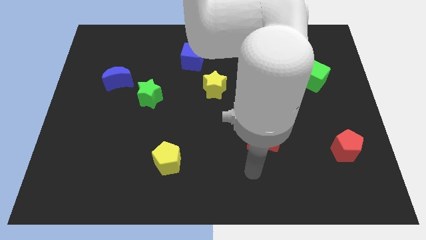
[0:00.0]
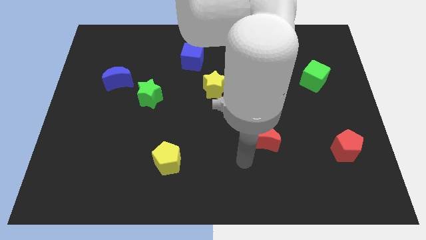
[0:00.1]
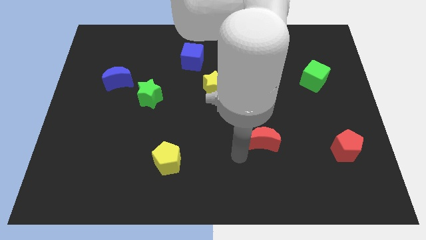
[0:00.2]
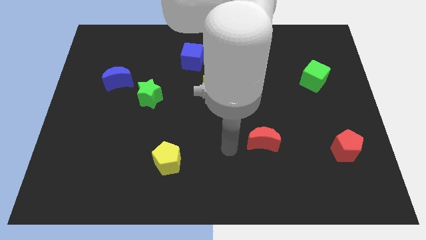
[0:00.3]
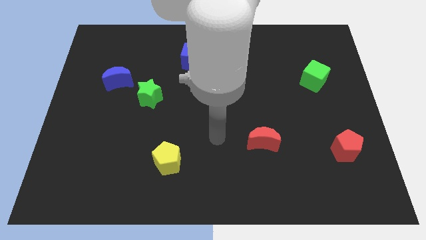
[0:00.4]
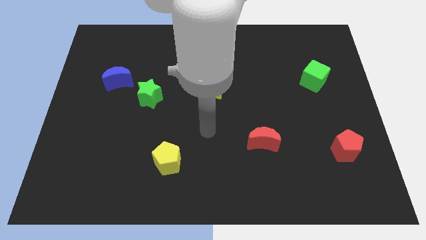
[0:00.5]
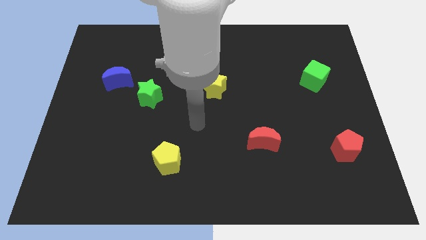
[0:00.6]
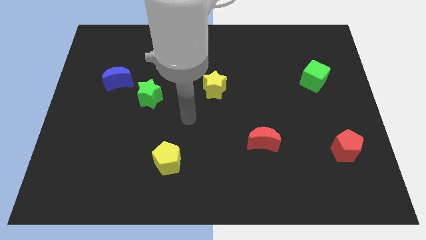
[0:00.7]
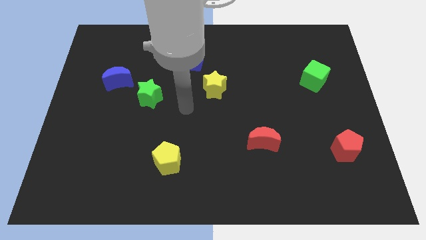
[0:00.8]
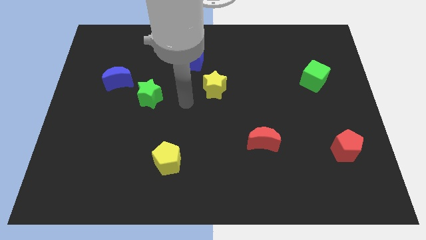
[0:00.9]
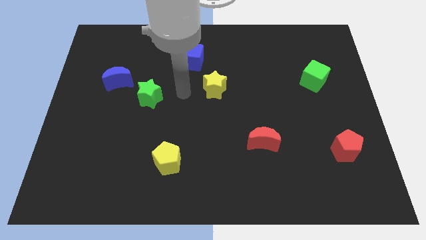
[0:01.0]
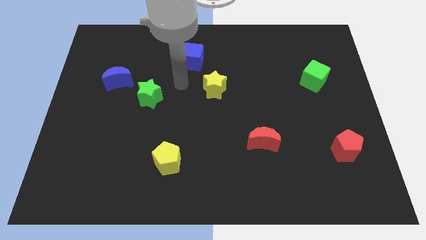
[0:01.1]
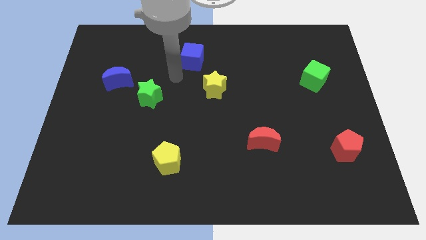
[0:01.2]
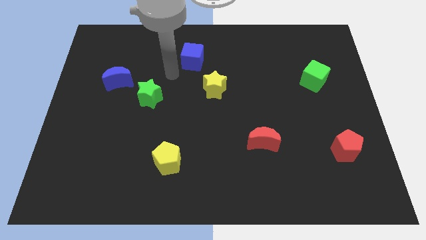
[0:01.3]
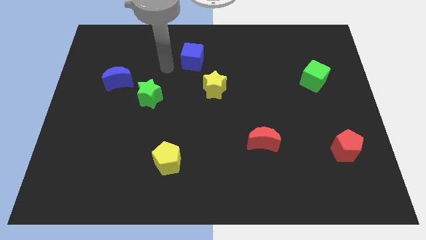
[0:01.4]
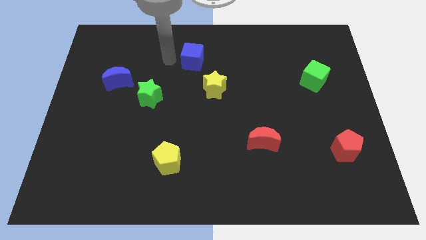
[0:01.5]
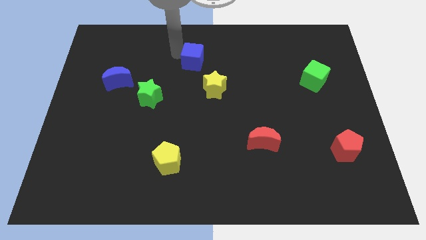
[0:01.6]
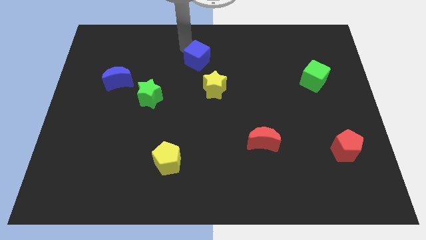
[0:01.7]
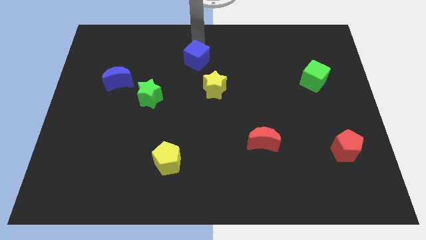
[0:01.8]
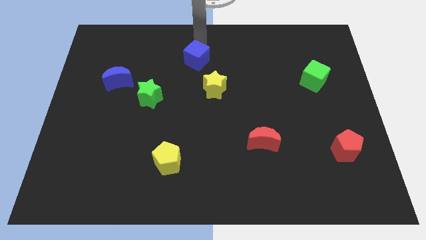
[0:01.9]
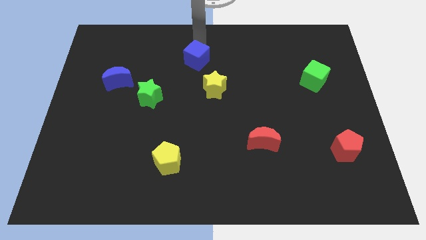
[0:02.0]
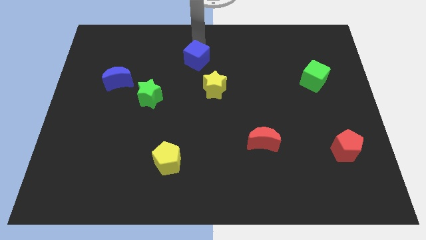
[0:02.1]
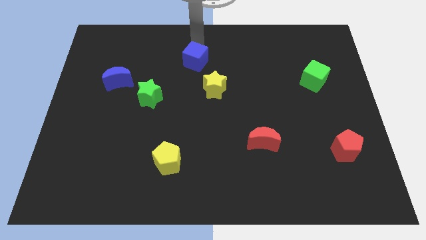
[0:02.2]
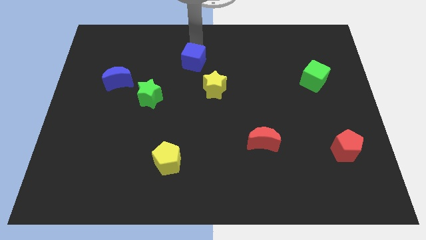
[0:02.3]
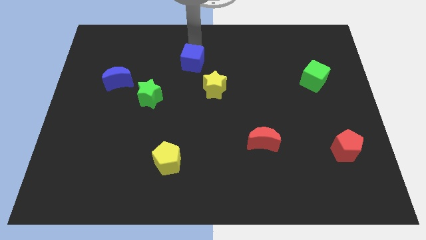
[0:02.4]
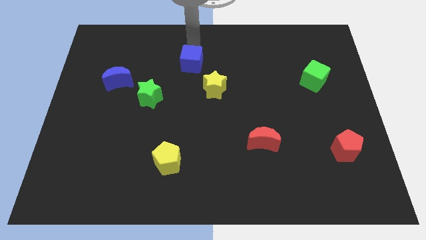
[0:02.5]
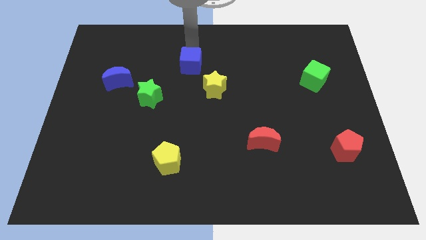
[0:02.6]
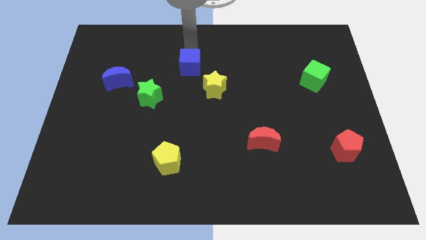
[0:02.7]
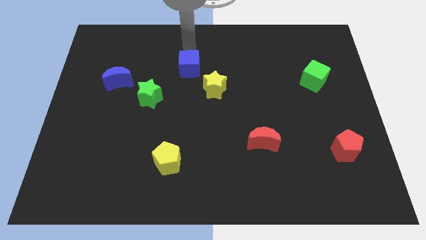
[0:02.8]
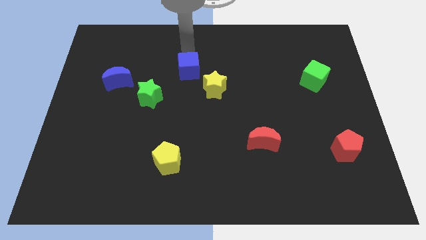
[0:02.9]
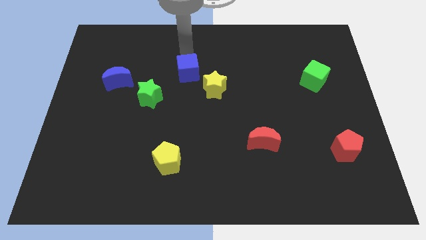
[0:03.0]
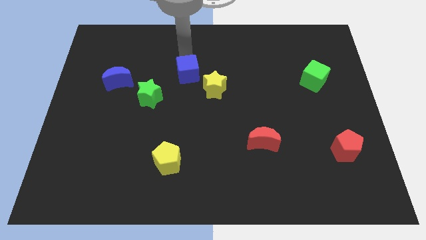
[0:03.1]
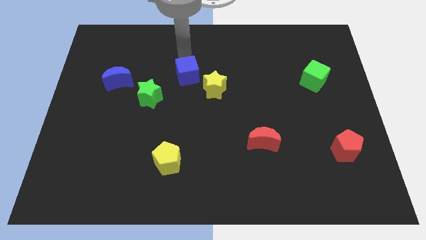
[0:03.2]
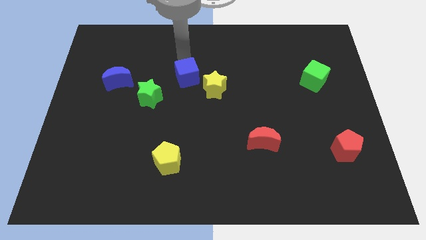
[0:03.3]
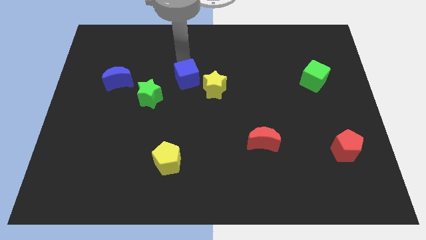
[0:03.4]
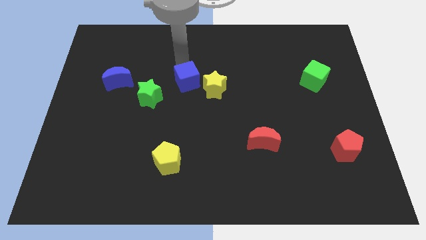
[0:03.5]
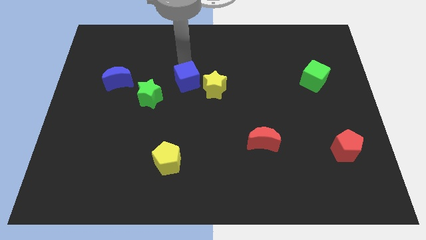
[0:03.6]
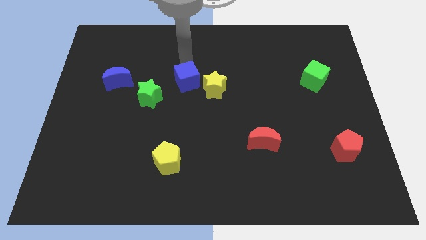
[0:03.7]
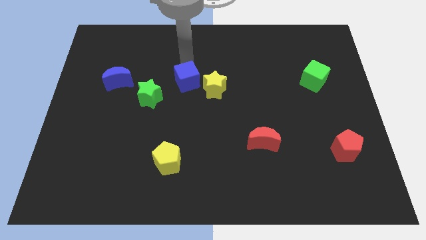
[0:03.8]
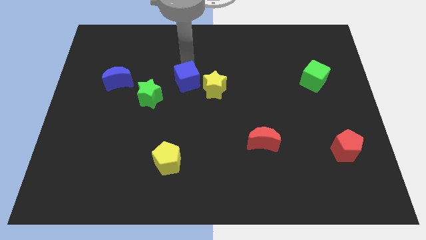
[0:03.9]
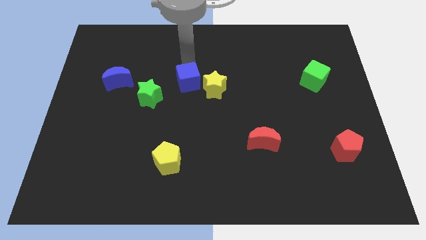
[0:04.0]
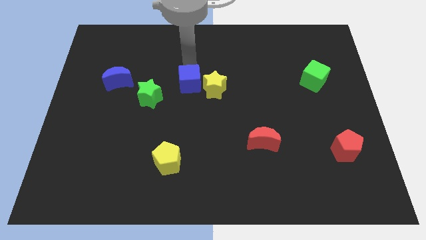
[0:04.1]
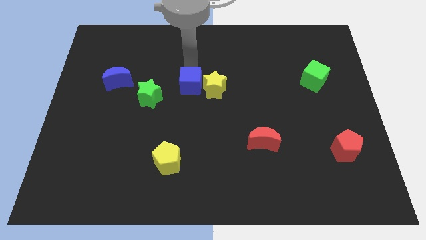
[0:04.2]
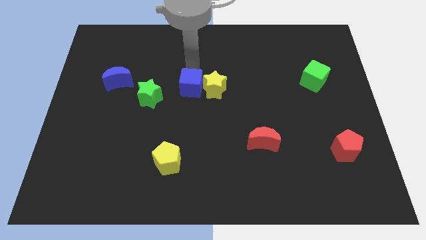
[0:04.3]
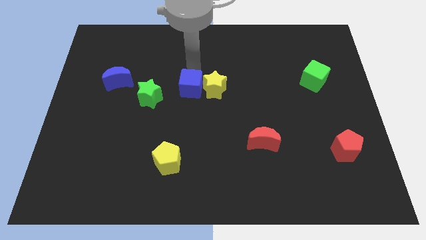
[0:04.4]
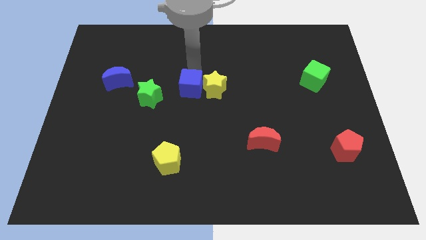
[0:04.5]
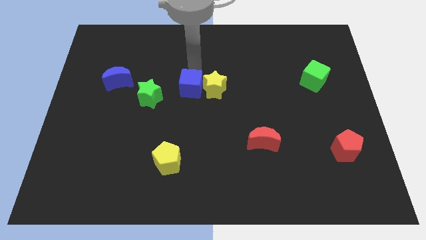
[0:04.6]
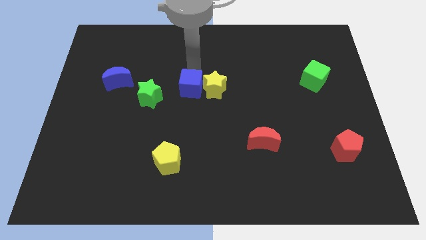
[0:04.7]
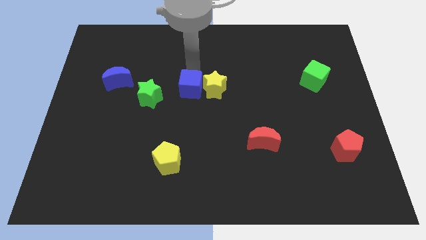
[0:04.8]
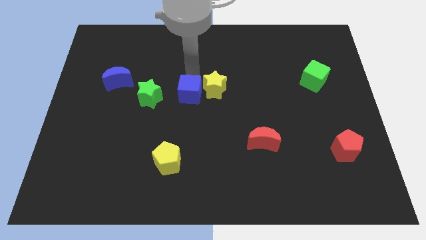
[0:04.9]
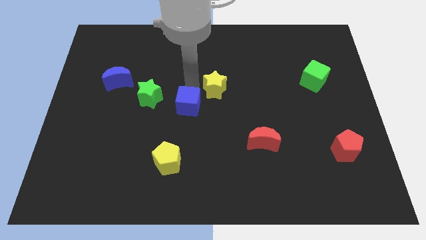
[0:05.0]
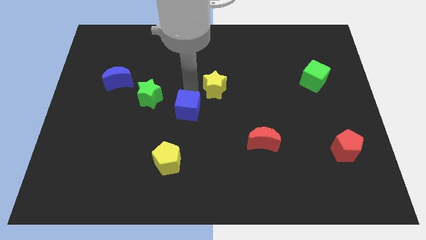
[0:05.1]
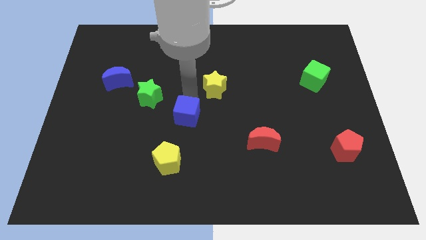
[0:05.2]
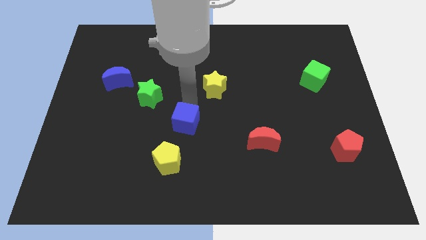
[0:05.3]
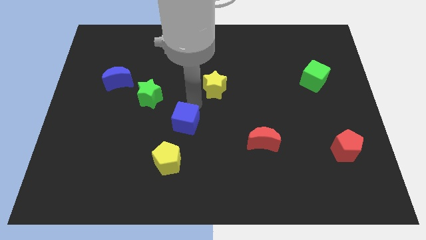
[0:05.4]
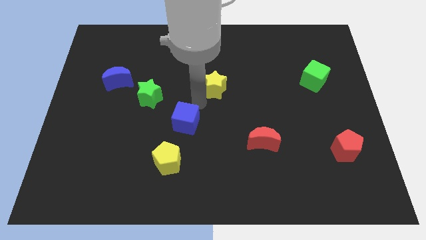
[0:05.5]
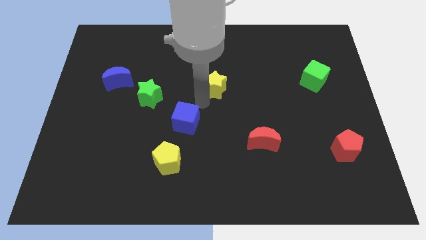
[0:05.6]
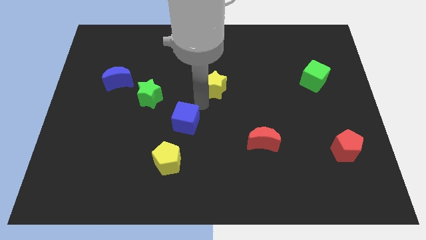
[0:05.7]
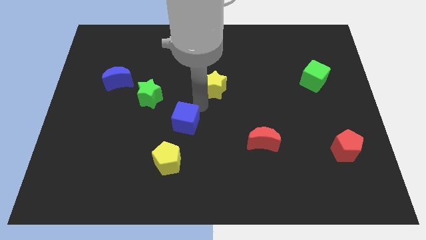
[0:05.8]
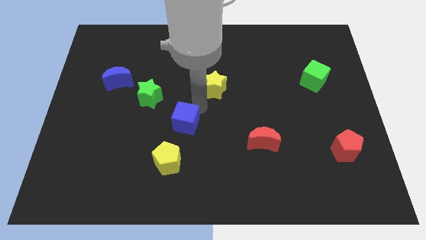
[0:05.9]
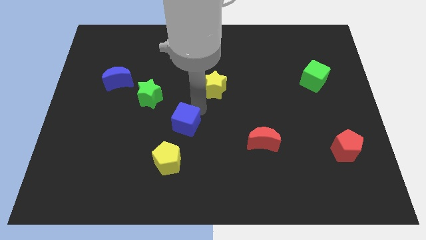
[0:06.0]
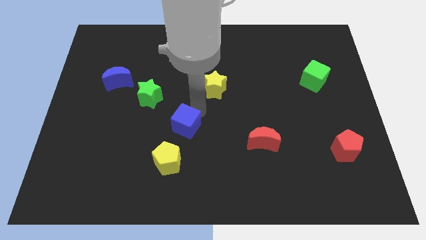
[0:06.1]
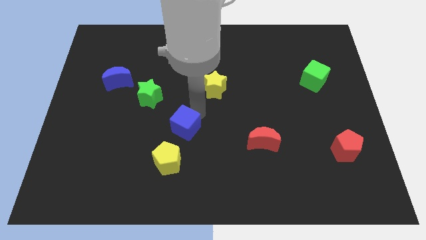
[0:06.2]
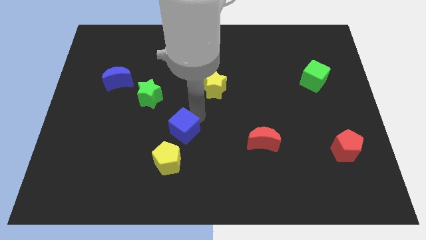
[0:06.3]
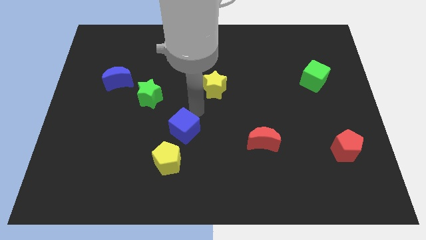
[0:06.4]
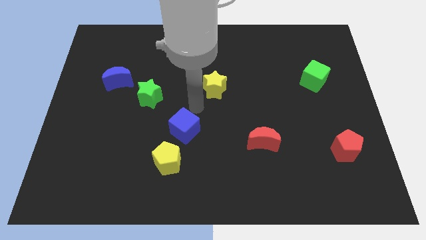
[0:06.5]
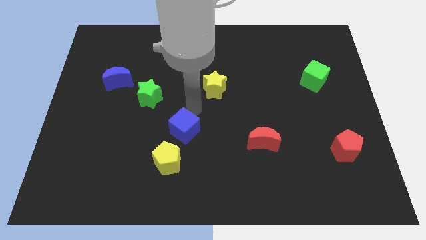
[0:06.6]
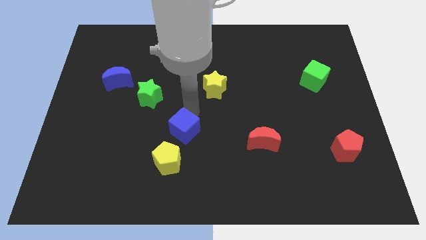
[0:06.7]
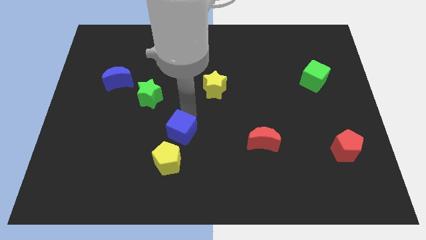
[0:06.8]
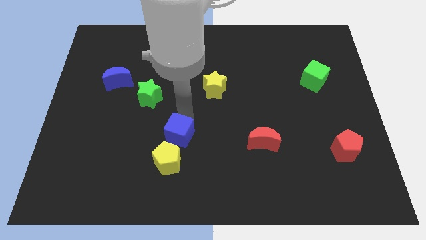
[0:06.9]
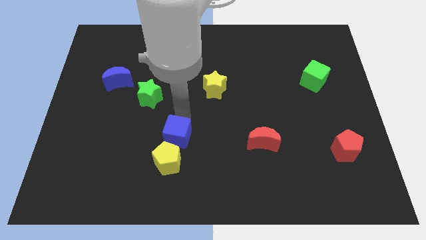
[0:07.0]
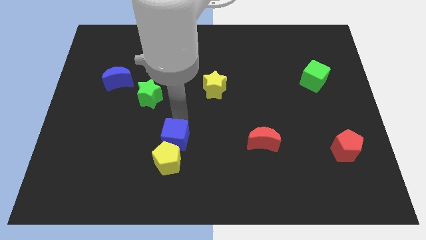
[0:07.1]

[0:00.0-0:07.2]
push the blue cube next to the yellow pentagon

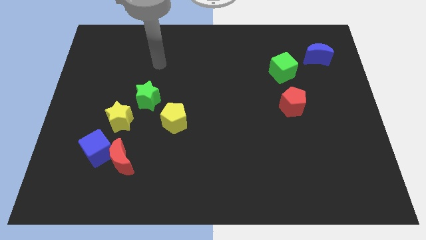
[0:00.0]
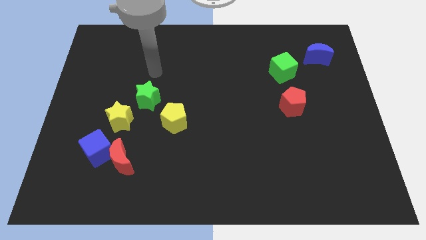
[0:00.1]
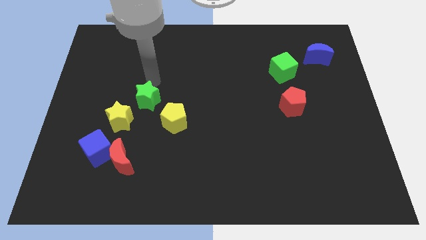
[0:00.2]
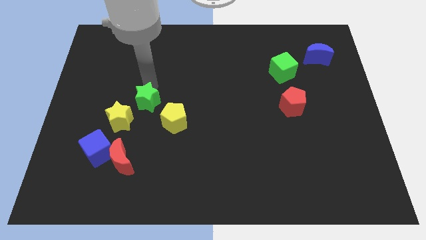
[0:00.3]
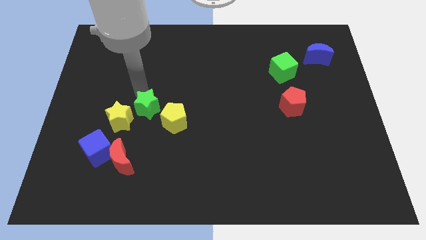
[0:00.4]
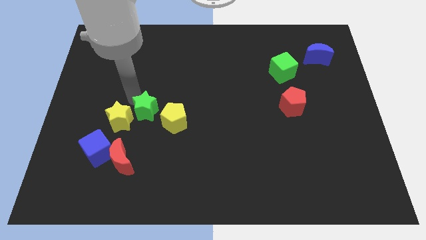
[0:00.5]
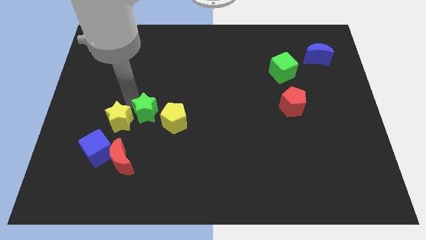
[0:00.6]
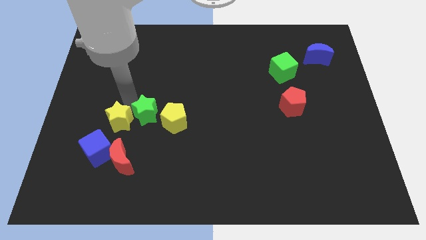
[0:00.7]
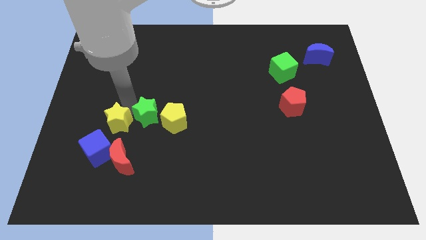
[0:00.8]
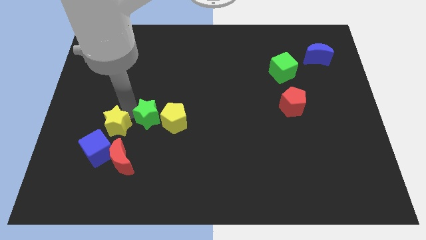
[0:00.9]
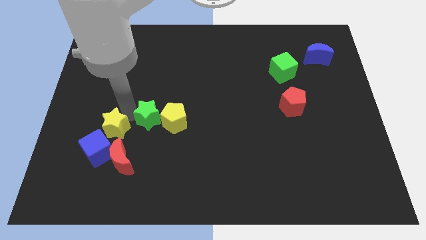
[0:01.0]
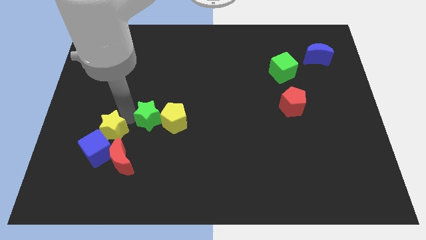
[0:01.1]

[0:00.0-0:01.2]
push the yellow star towards the blue cube
